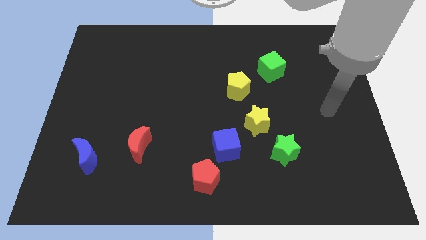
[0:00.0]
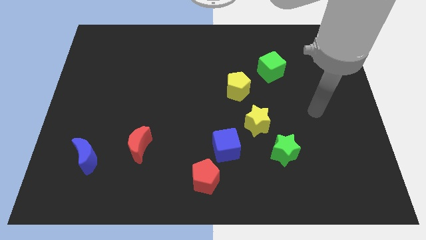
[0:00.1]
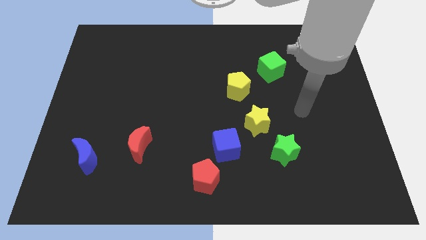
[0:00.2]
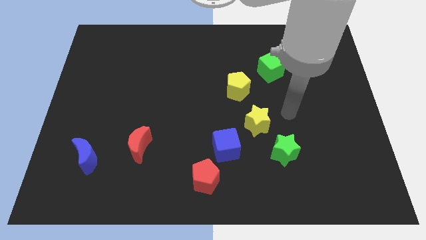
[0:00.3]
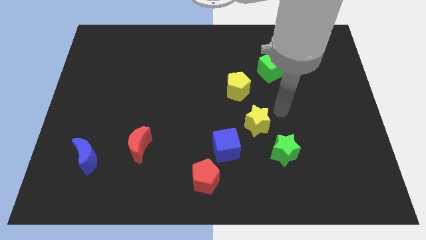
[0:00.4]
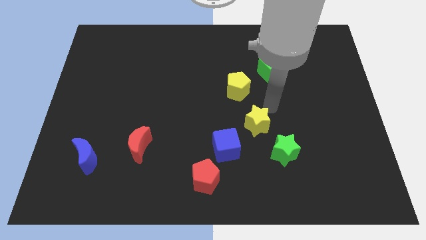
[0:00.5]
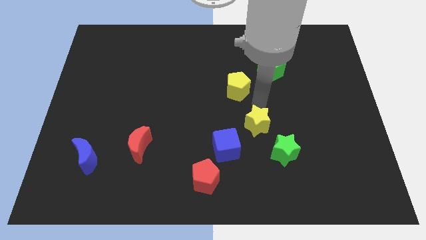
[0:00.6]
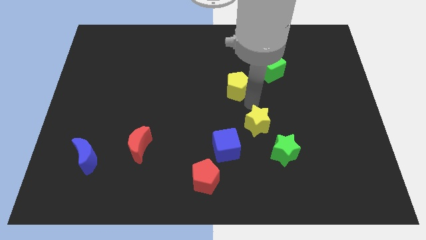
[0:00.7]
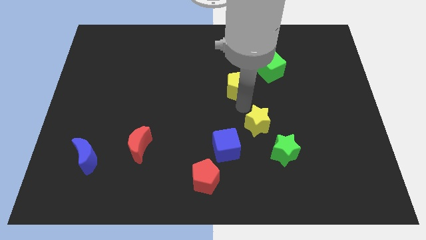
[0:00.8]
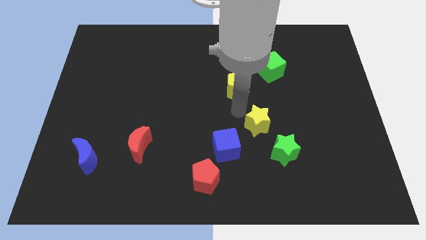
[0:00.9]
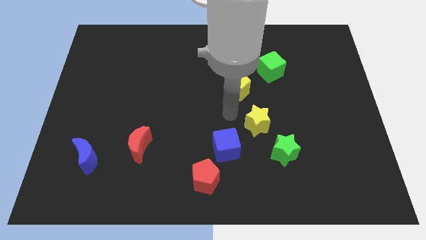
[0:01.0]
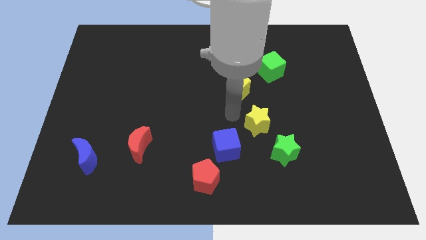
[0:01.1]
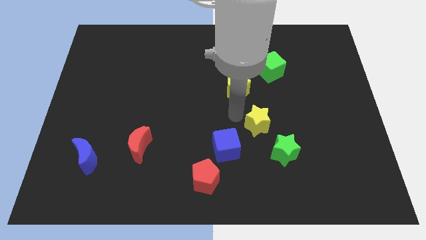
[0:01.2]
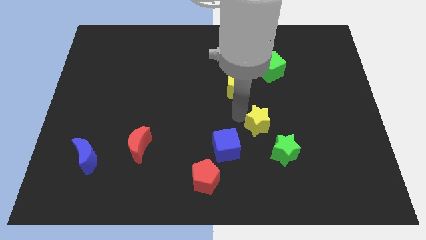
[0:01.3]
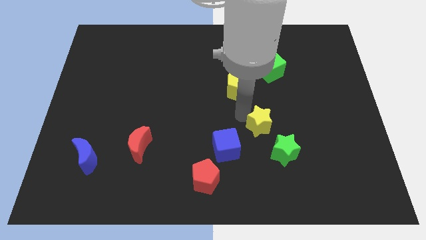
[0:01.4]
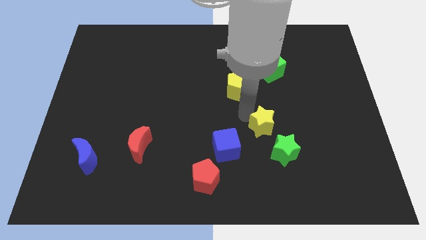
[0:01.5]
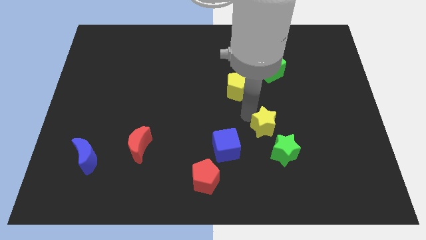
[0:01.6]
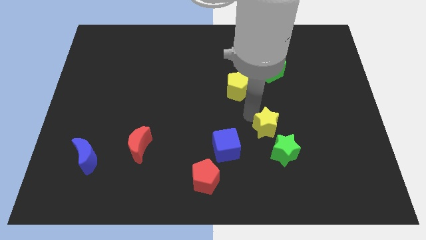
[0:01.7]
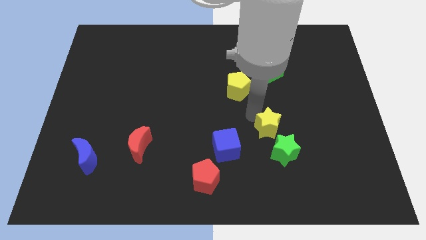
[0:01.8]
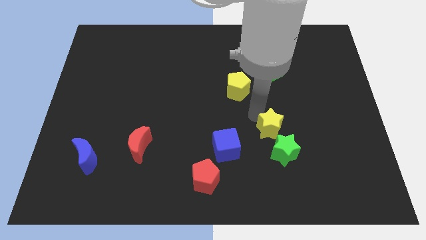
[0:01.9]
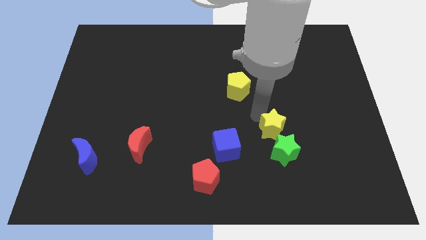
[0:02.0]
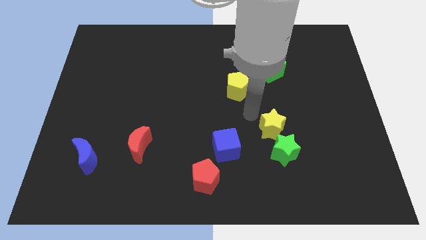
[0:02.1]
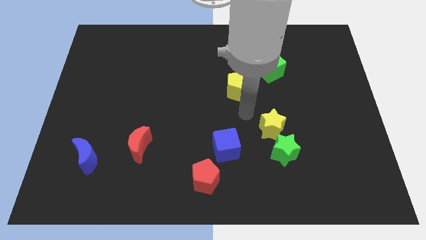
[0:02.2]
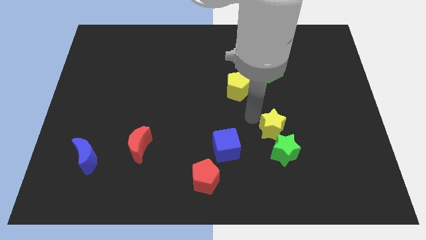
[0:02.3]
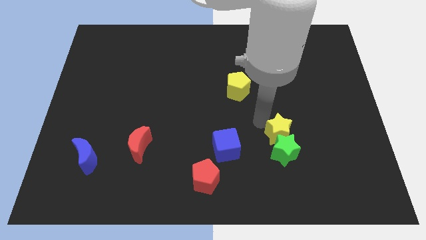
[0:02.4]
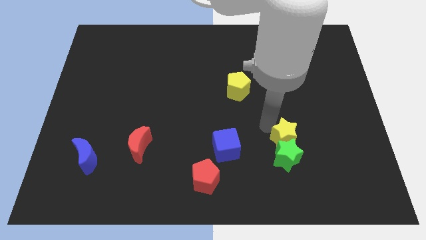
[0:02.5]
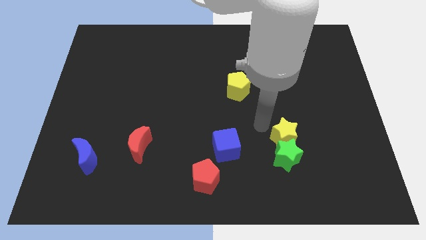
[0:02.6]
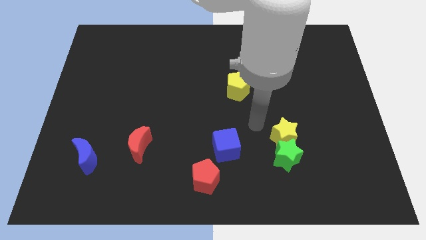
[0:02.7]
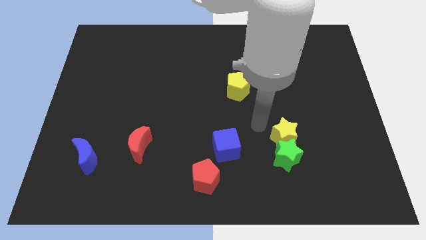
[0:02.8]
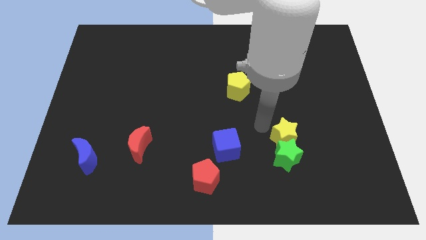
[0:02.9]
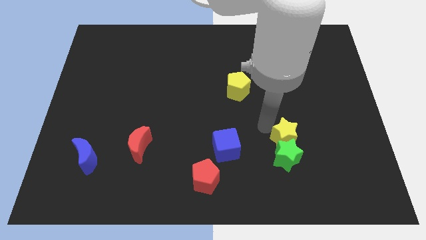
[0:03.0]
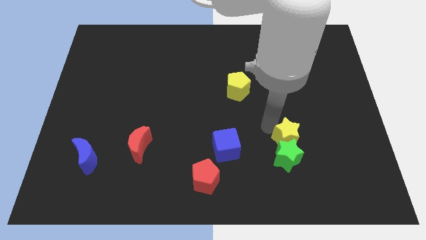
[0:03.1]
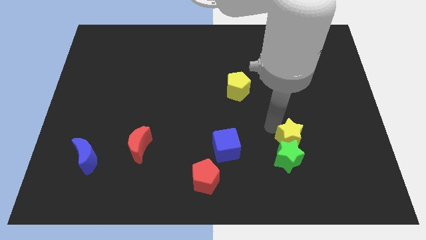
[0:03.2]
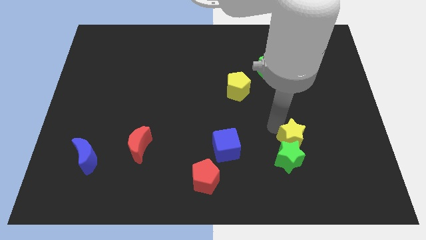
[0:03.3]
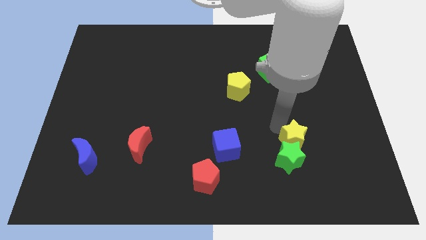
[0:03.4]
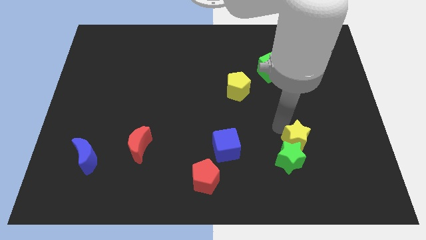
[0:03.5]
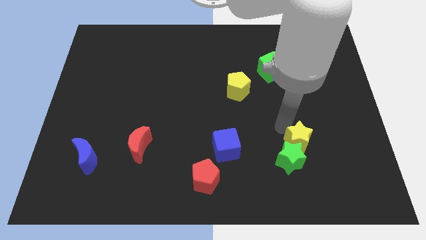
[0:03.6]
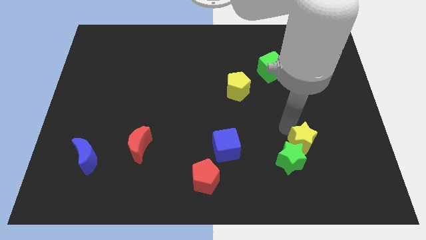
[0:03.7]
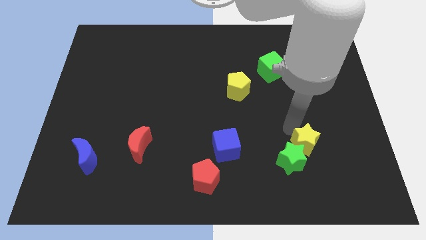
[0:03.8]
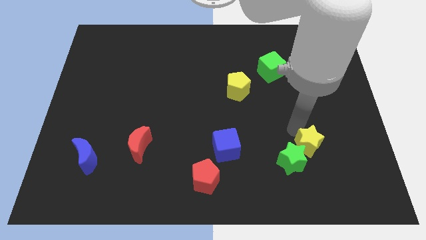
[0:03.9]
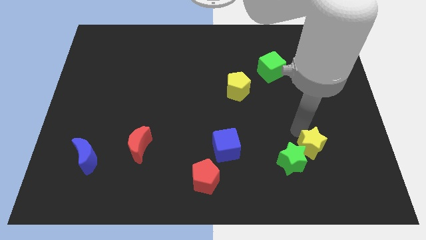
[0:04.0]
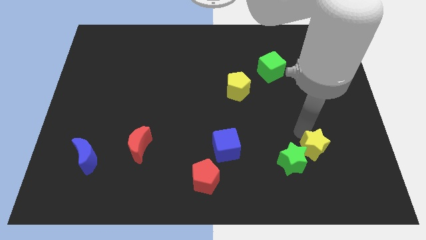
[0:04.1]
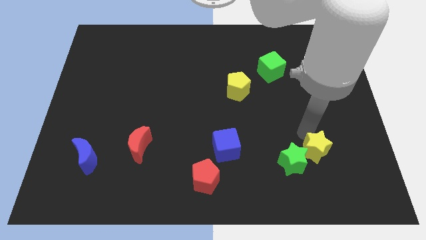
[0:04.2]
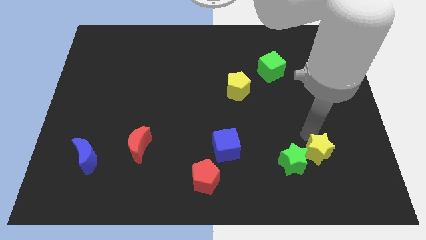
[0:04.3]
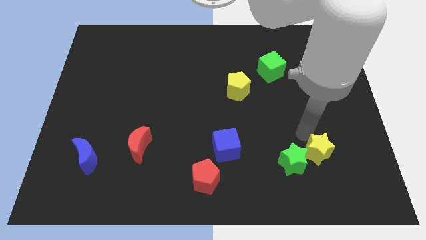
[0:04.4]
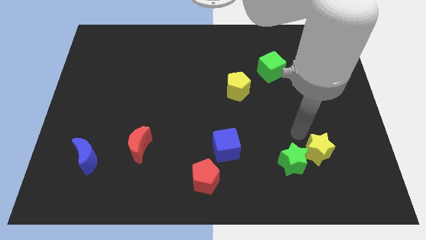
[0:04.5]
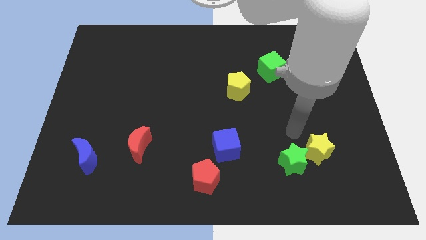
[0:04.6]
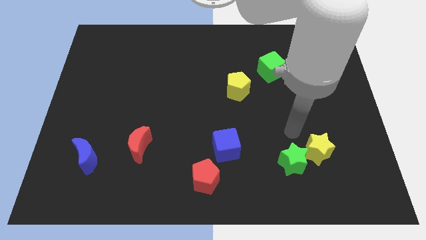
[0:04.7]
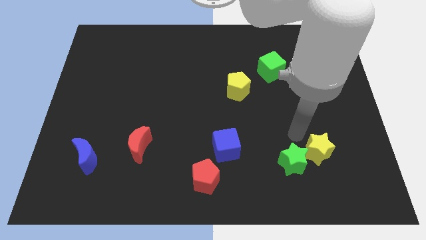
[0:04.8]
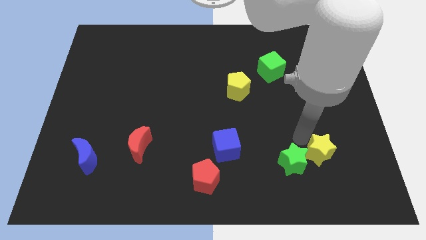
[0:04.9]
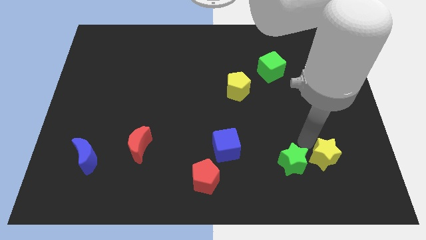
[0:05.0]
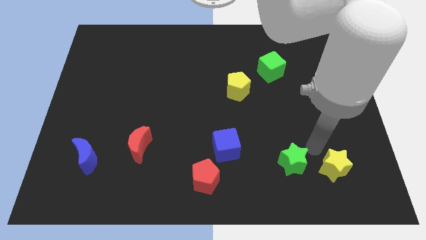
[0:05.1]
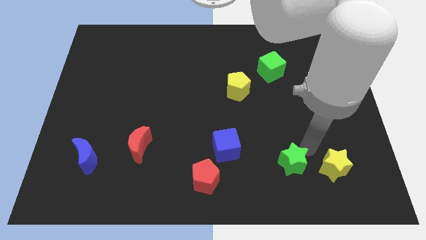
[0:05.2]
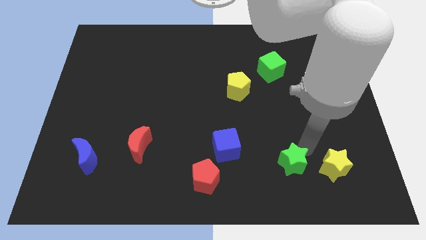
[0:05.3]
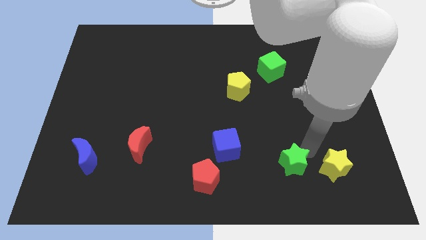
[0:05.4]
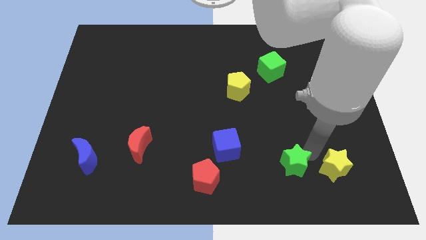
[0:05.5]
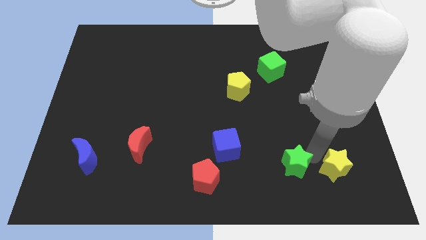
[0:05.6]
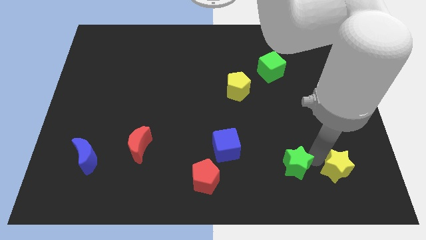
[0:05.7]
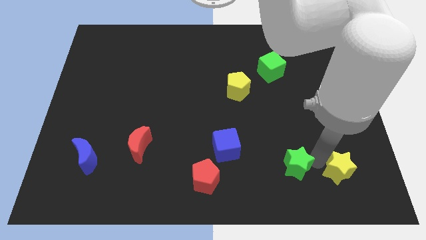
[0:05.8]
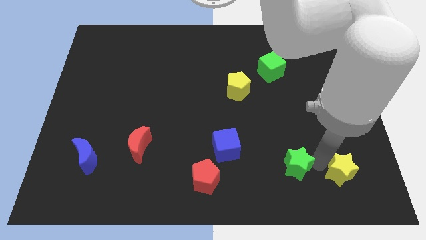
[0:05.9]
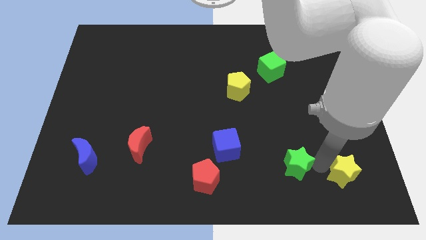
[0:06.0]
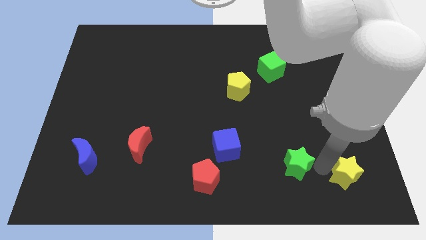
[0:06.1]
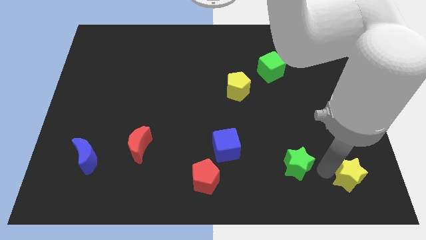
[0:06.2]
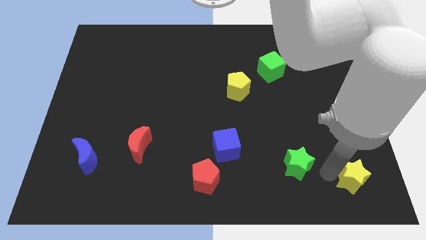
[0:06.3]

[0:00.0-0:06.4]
slide the yellow star to the bottom right of the board

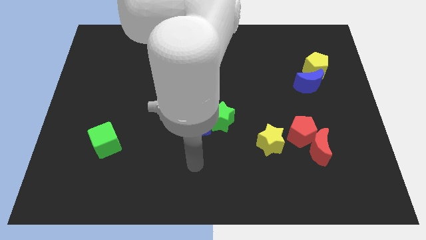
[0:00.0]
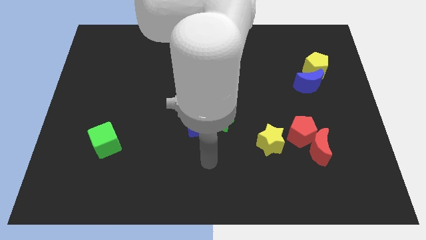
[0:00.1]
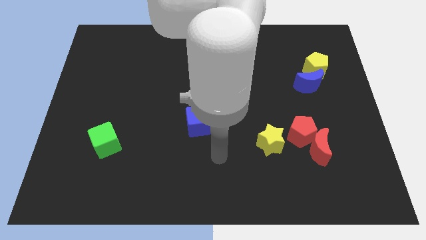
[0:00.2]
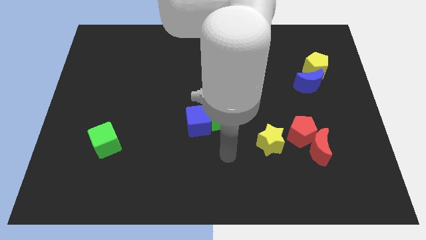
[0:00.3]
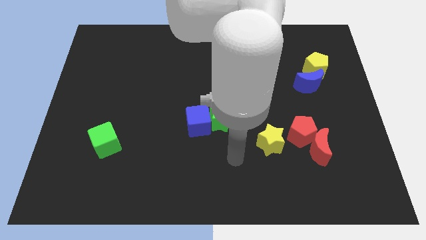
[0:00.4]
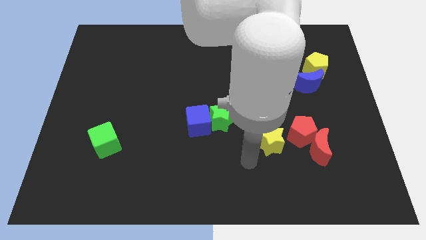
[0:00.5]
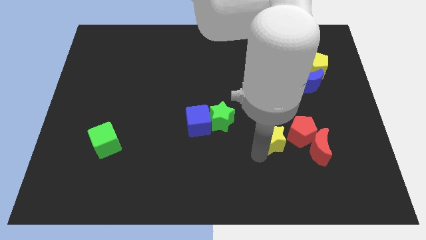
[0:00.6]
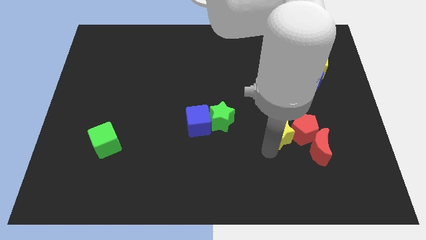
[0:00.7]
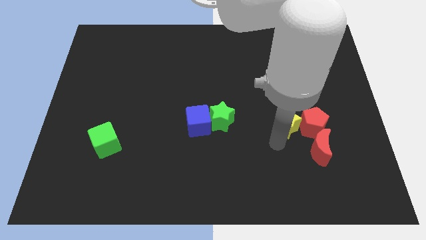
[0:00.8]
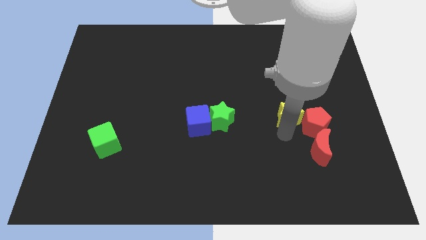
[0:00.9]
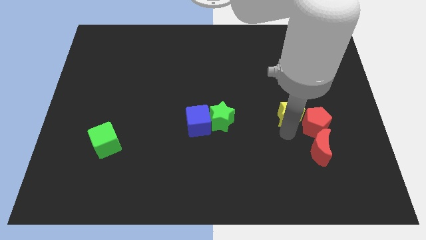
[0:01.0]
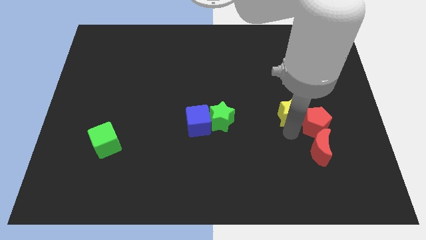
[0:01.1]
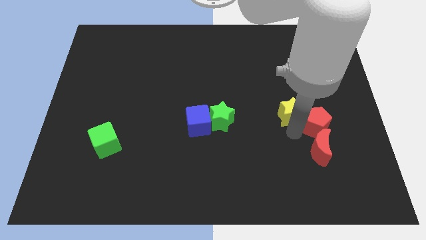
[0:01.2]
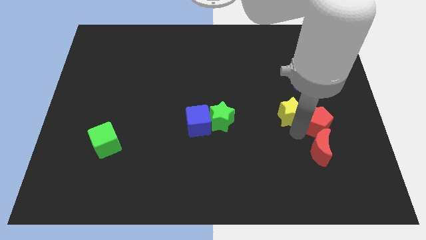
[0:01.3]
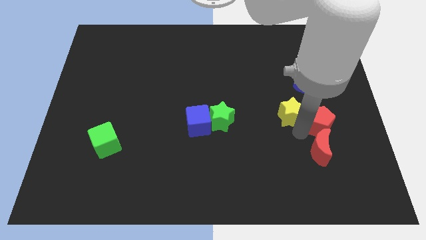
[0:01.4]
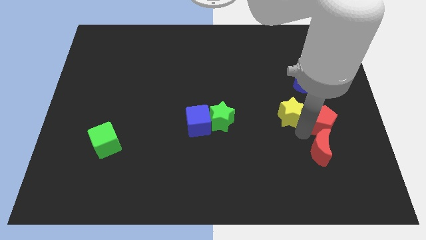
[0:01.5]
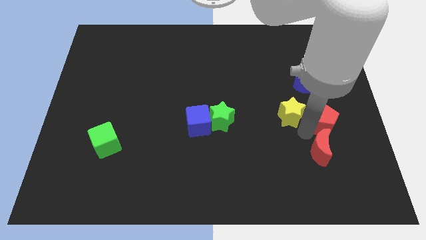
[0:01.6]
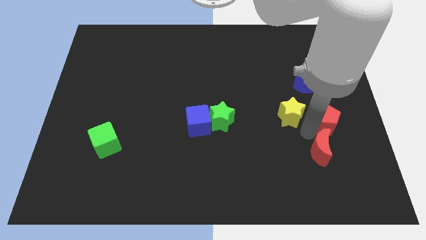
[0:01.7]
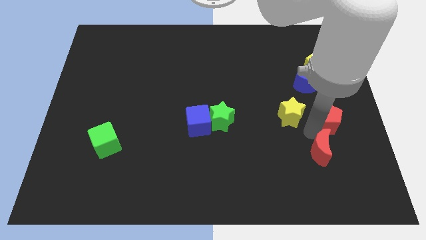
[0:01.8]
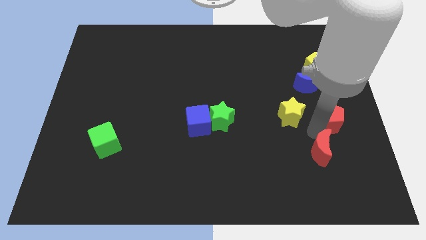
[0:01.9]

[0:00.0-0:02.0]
push the red pentagon to the right side
